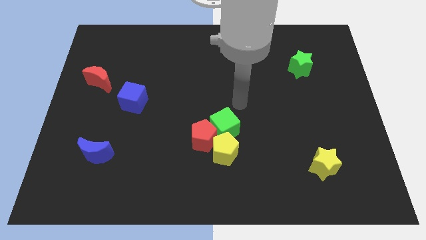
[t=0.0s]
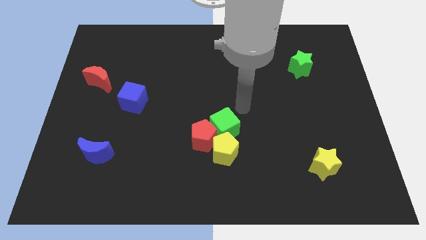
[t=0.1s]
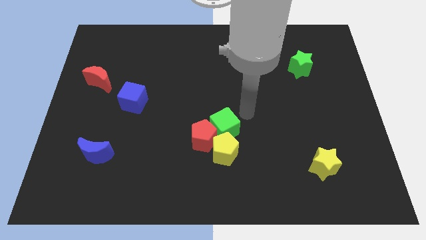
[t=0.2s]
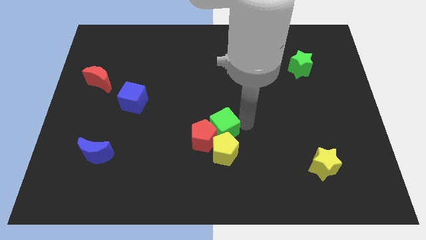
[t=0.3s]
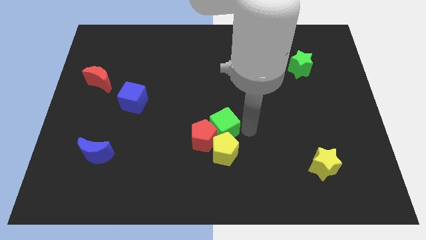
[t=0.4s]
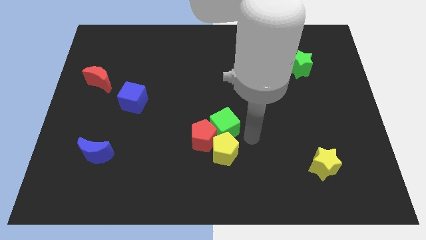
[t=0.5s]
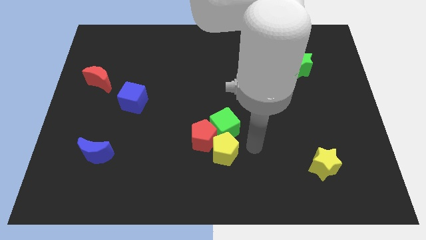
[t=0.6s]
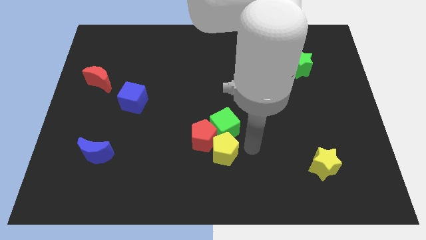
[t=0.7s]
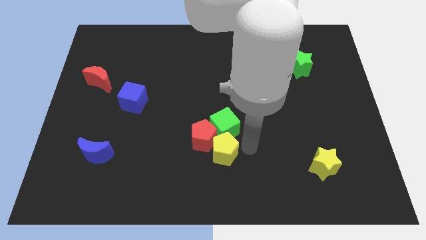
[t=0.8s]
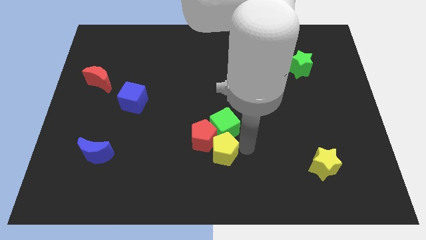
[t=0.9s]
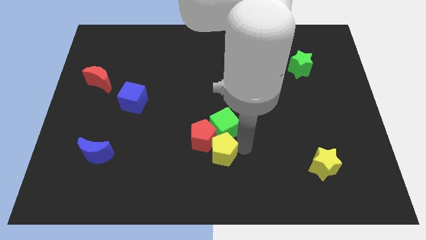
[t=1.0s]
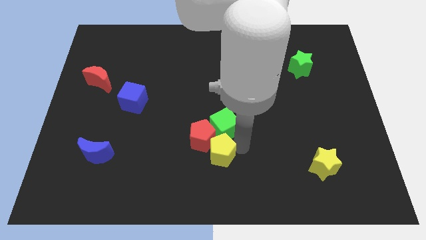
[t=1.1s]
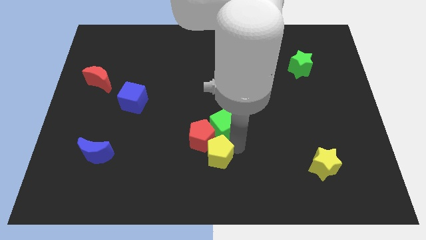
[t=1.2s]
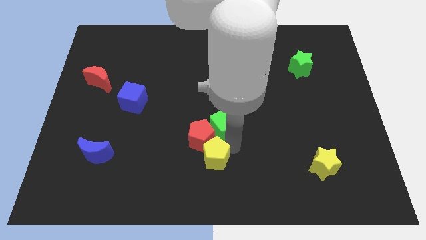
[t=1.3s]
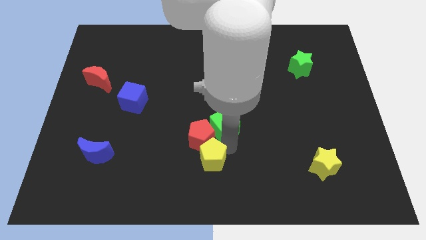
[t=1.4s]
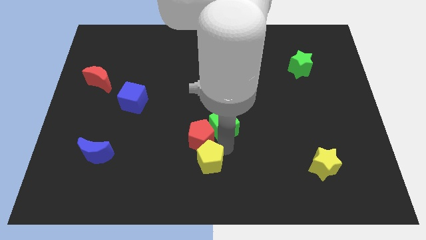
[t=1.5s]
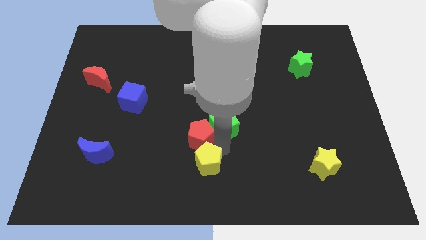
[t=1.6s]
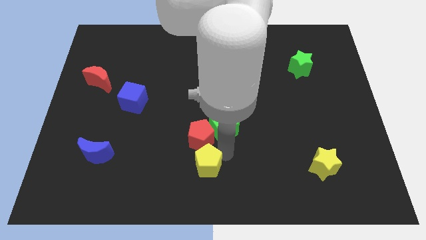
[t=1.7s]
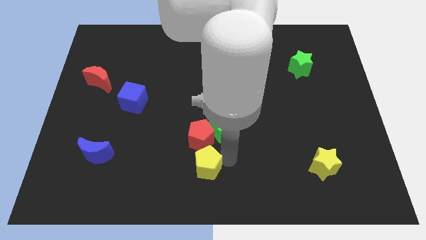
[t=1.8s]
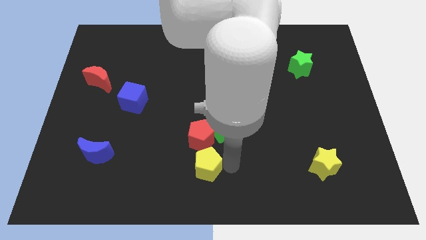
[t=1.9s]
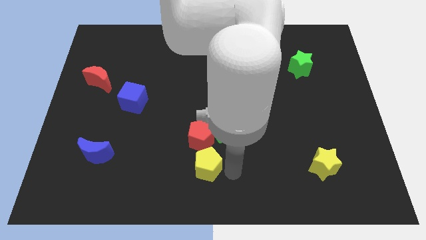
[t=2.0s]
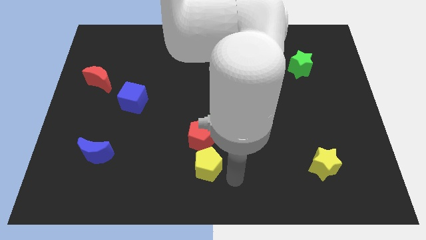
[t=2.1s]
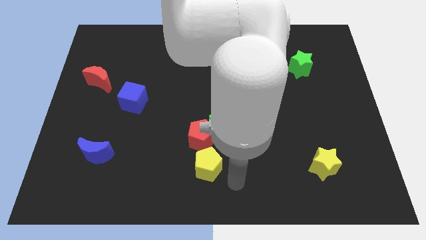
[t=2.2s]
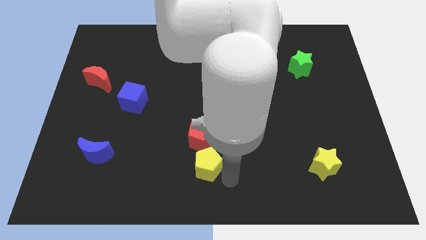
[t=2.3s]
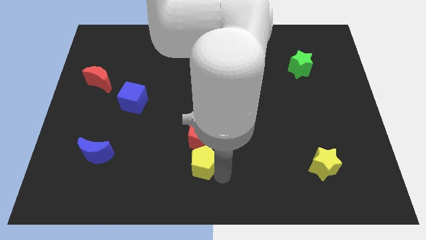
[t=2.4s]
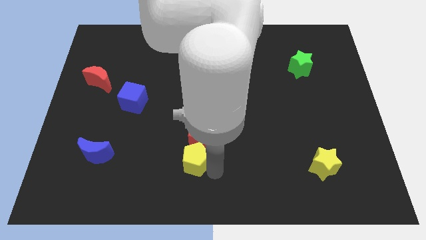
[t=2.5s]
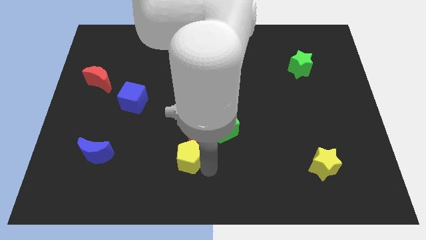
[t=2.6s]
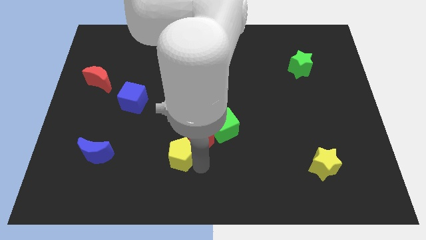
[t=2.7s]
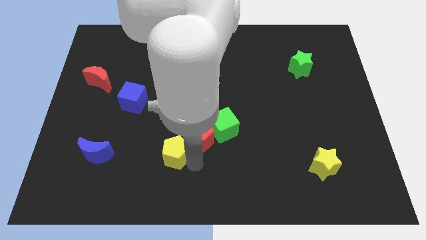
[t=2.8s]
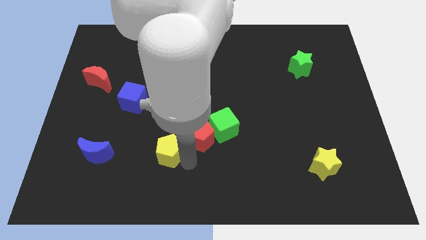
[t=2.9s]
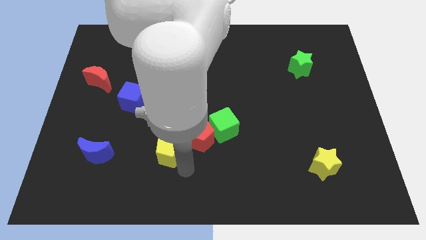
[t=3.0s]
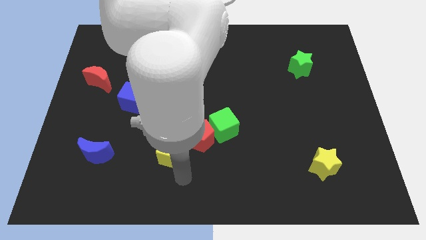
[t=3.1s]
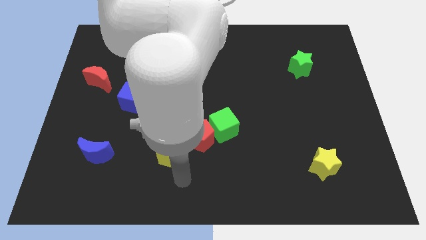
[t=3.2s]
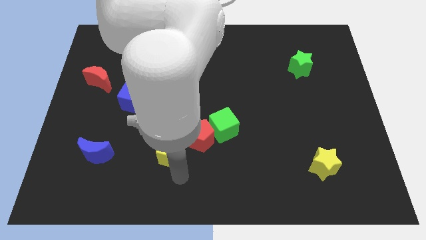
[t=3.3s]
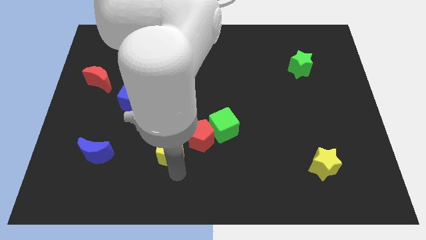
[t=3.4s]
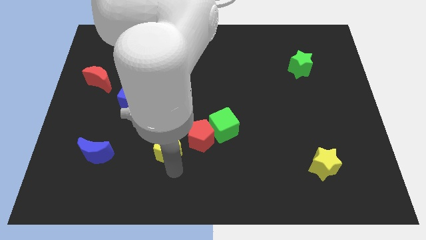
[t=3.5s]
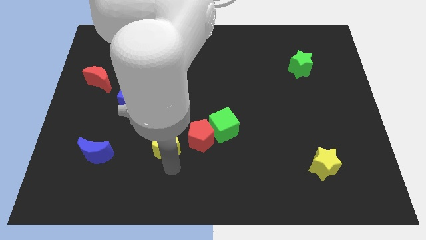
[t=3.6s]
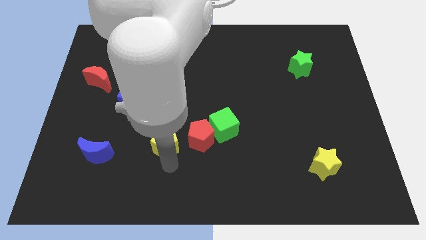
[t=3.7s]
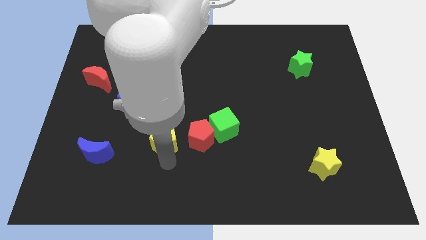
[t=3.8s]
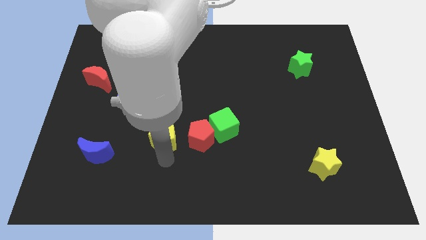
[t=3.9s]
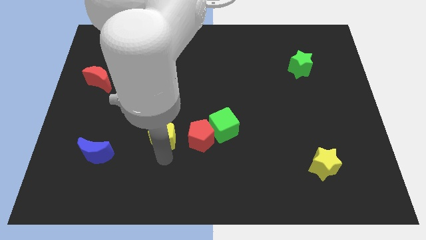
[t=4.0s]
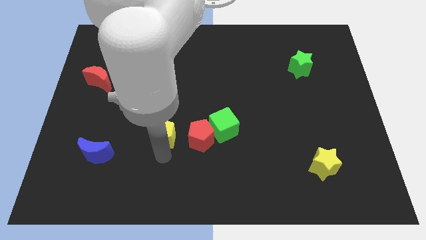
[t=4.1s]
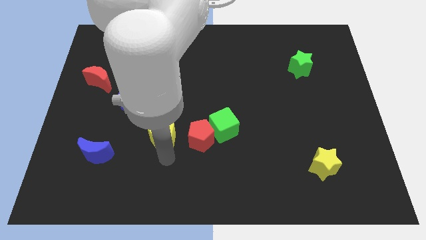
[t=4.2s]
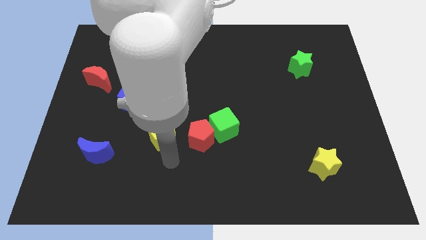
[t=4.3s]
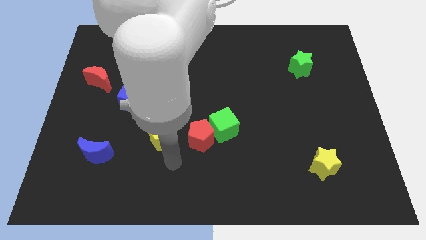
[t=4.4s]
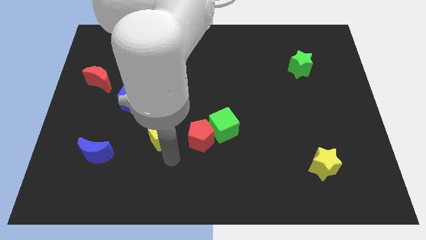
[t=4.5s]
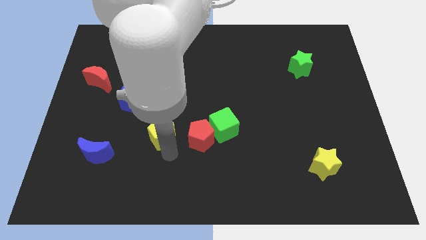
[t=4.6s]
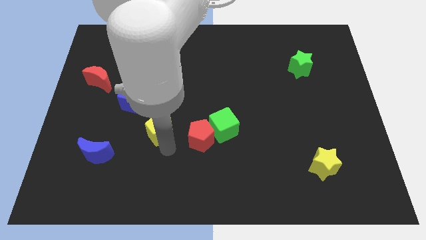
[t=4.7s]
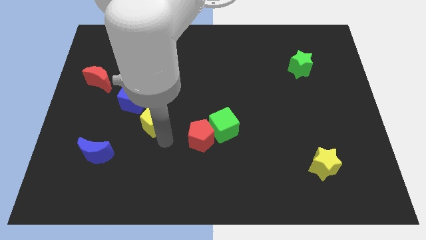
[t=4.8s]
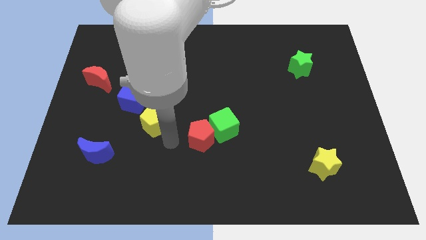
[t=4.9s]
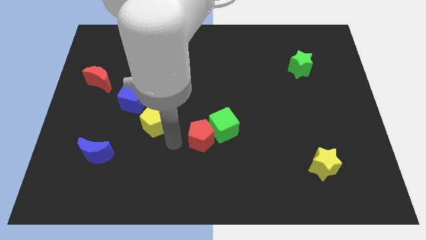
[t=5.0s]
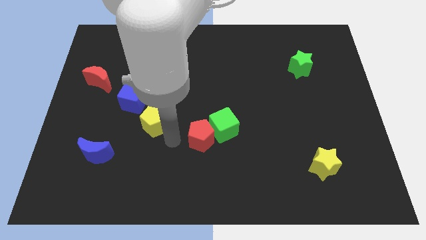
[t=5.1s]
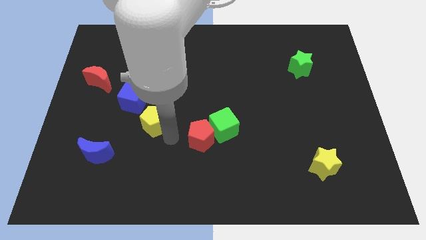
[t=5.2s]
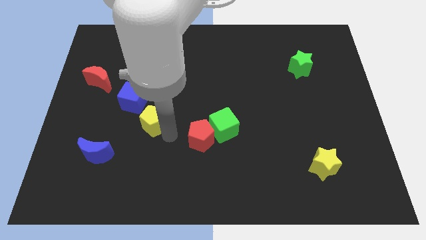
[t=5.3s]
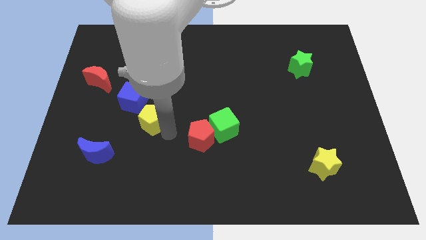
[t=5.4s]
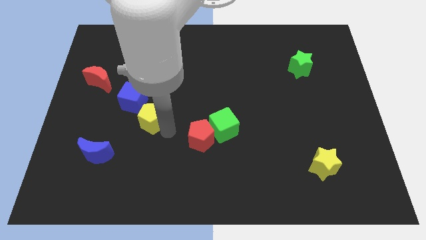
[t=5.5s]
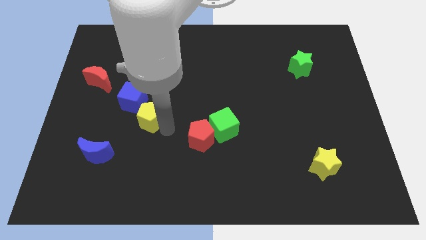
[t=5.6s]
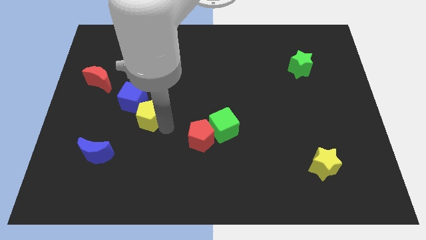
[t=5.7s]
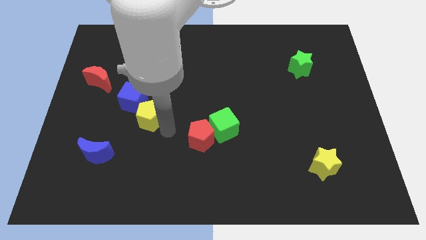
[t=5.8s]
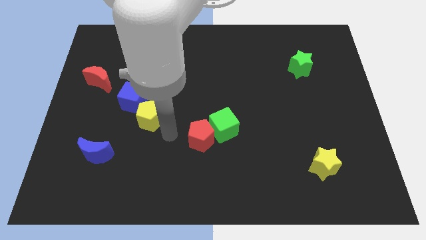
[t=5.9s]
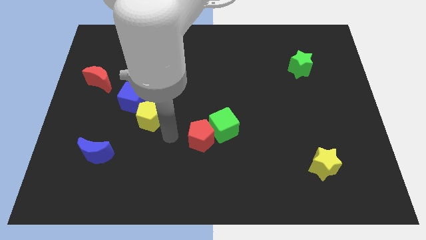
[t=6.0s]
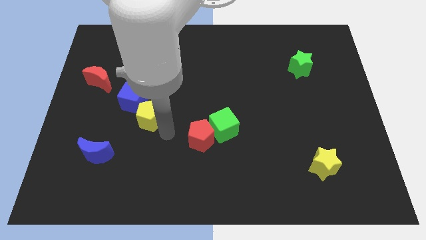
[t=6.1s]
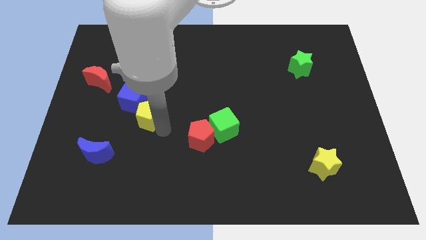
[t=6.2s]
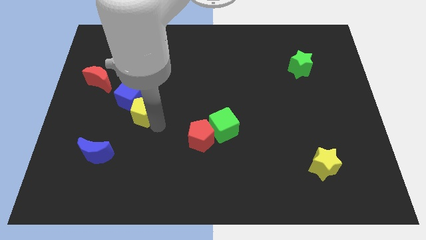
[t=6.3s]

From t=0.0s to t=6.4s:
put the yellow pentagon to the blue cube

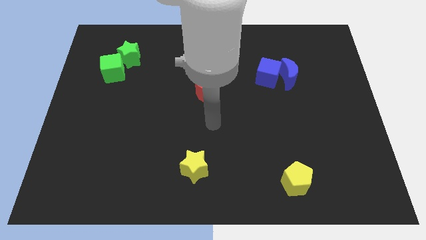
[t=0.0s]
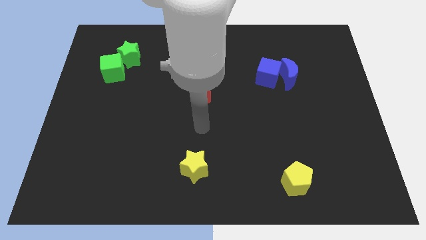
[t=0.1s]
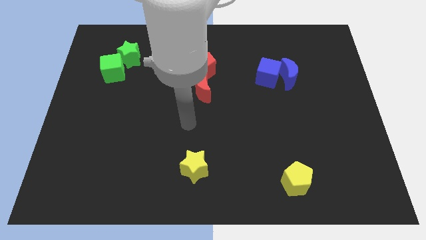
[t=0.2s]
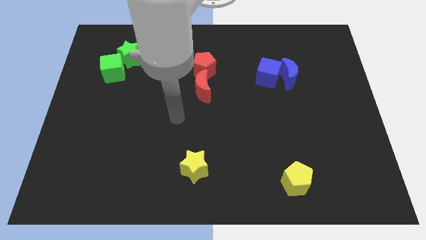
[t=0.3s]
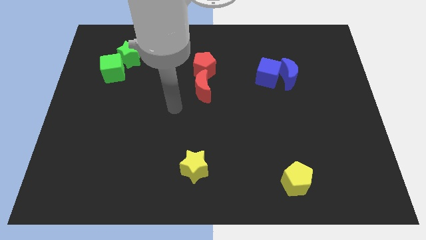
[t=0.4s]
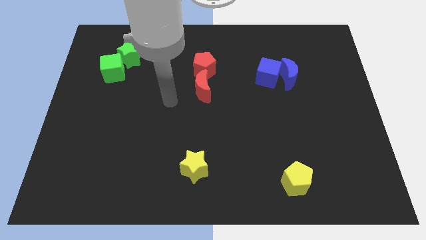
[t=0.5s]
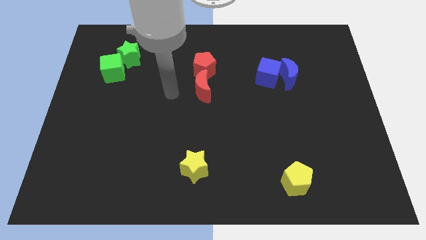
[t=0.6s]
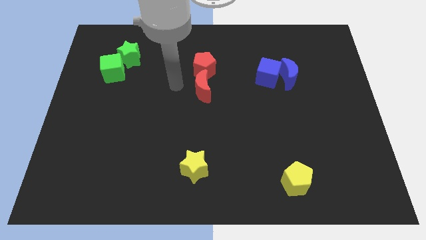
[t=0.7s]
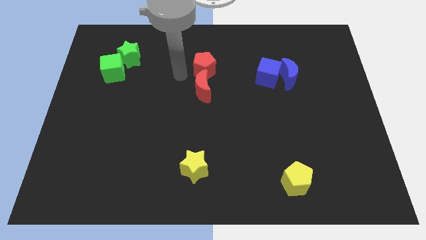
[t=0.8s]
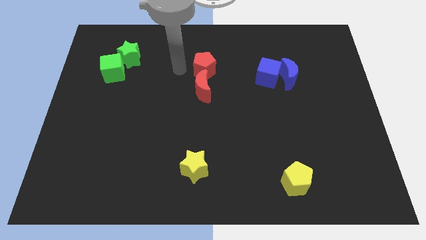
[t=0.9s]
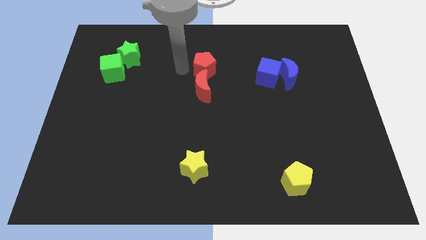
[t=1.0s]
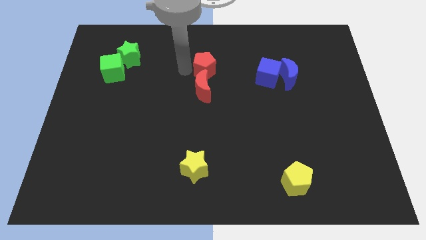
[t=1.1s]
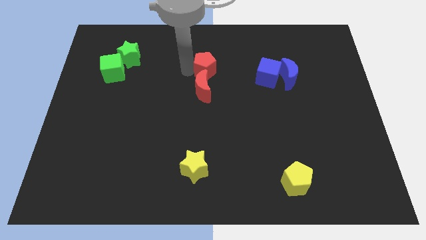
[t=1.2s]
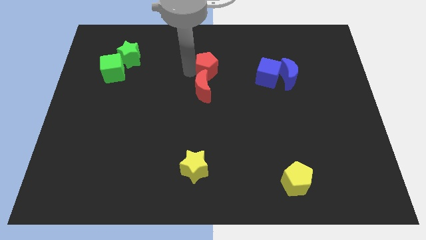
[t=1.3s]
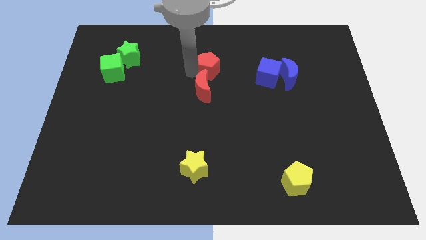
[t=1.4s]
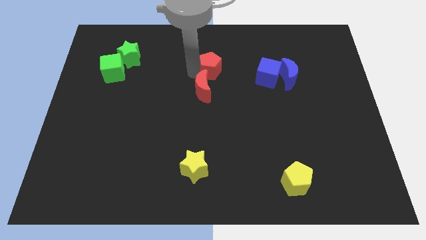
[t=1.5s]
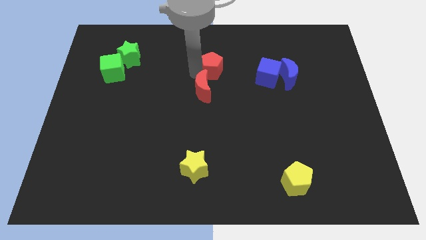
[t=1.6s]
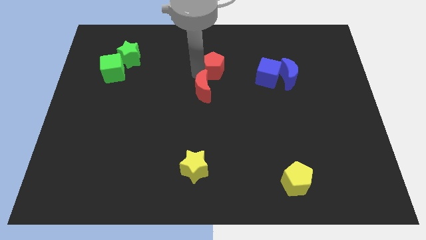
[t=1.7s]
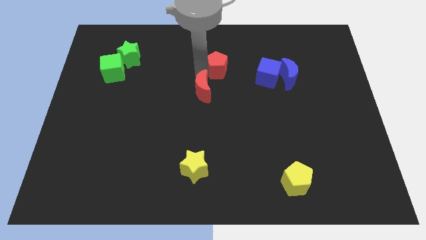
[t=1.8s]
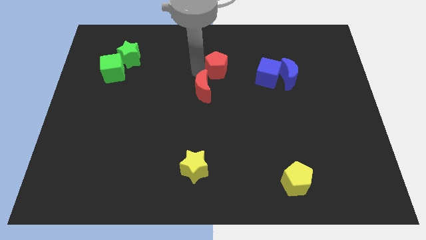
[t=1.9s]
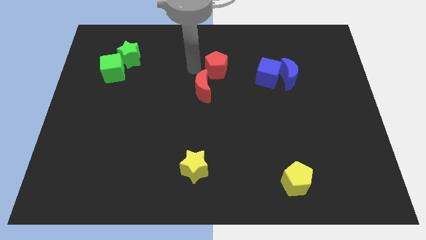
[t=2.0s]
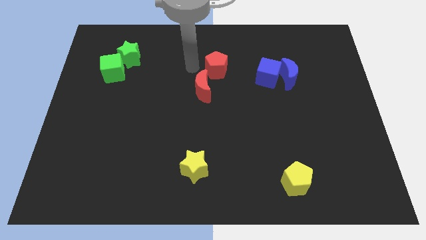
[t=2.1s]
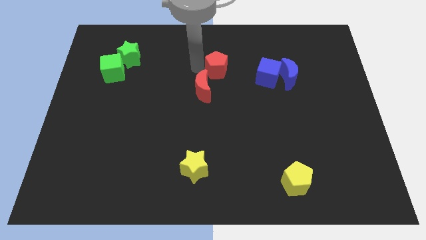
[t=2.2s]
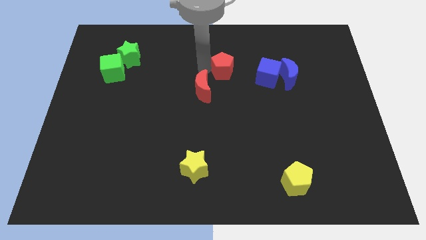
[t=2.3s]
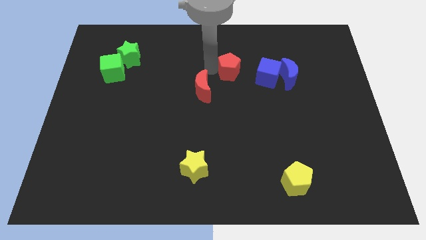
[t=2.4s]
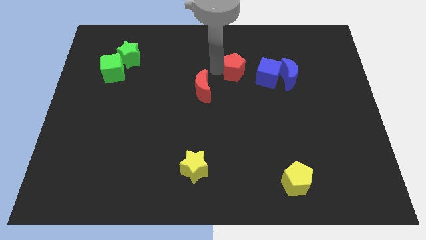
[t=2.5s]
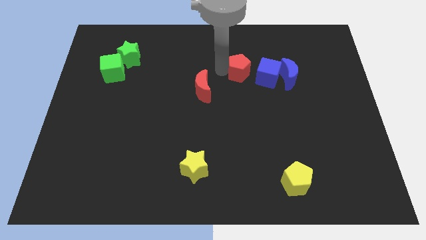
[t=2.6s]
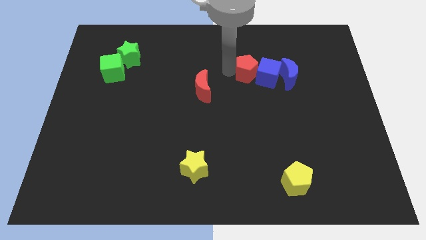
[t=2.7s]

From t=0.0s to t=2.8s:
move the red pentagon to the blue cube
